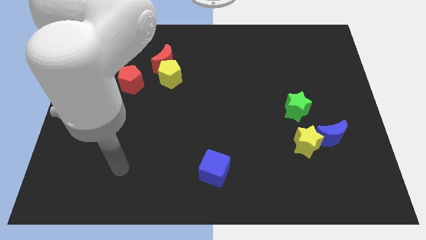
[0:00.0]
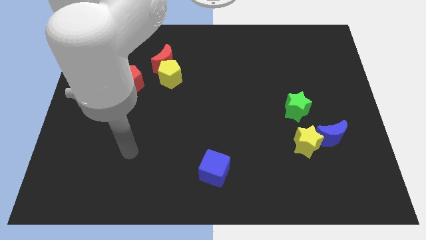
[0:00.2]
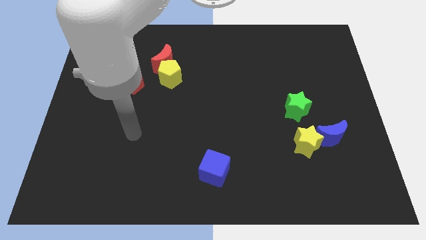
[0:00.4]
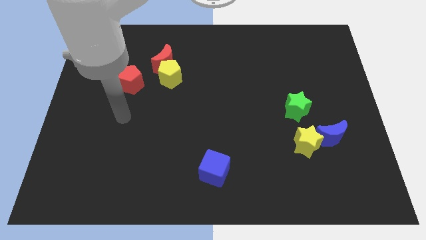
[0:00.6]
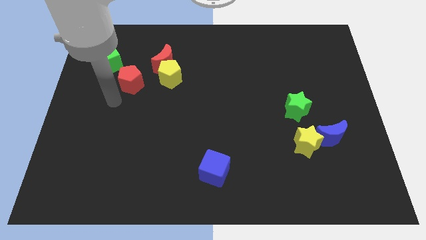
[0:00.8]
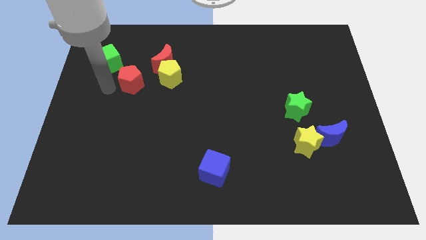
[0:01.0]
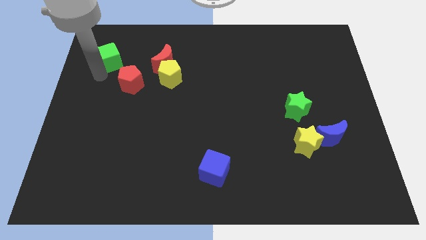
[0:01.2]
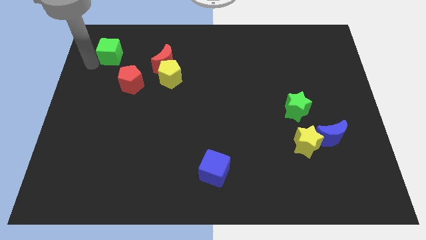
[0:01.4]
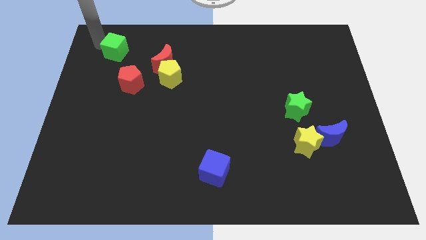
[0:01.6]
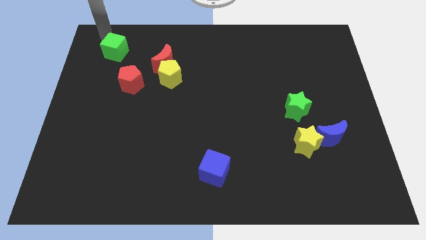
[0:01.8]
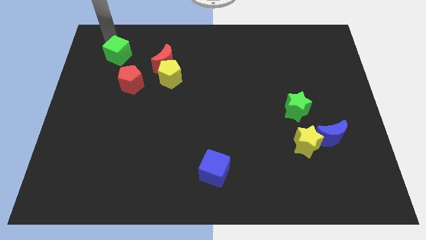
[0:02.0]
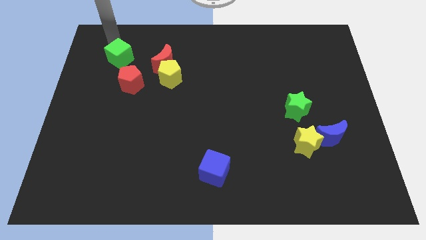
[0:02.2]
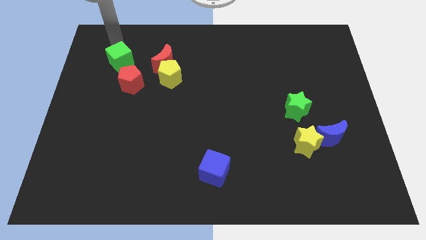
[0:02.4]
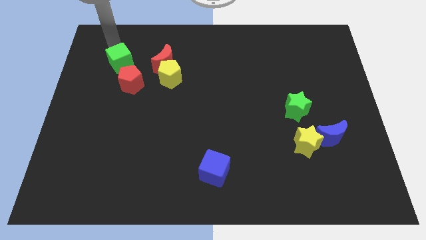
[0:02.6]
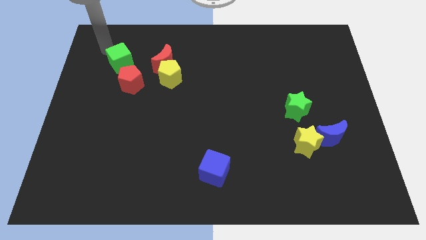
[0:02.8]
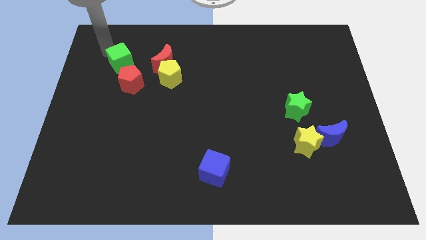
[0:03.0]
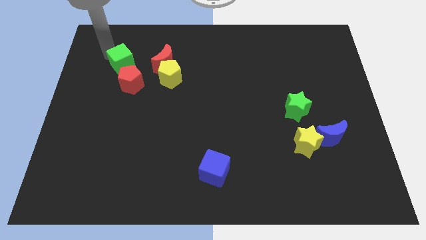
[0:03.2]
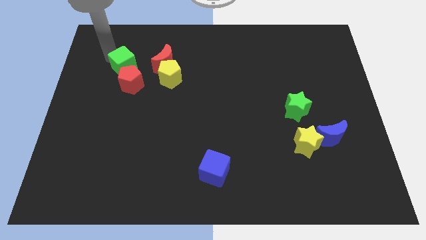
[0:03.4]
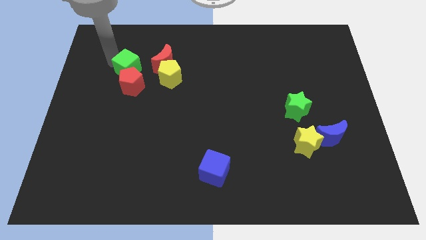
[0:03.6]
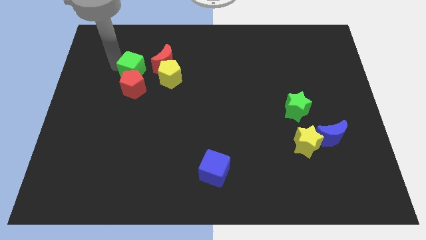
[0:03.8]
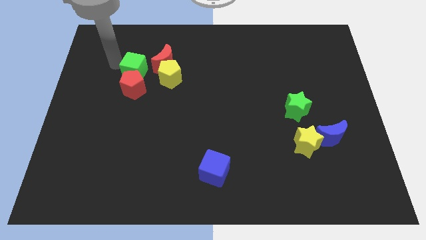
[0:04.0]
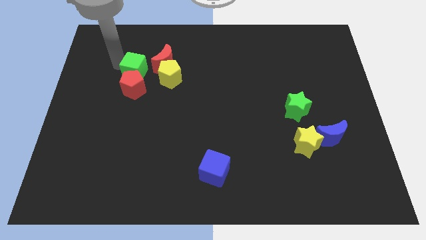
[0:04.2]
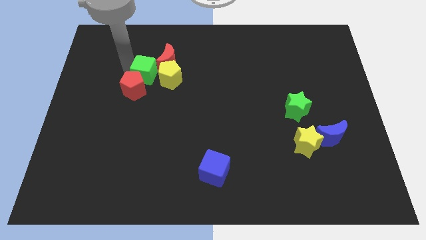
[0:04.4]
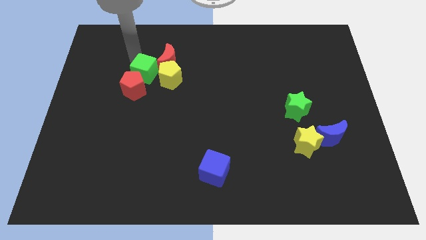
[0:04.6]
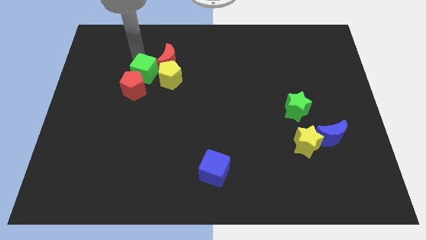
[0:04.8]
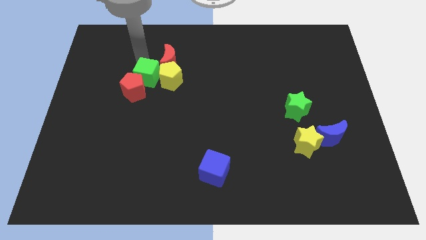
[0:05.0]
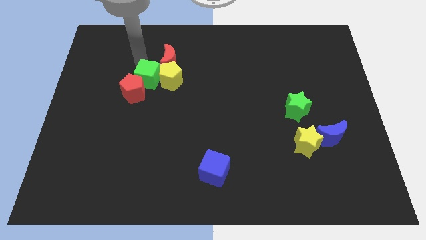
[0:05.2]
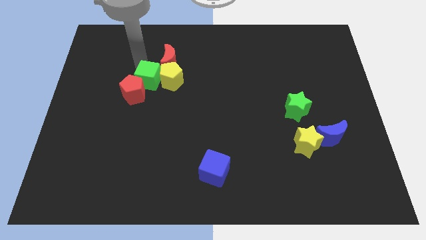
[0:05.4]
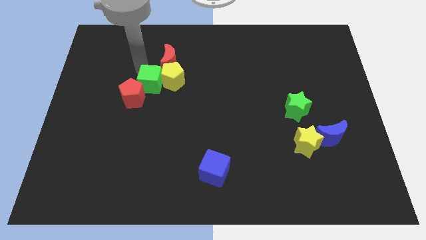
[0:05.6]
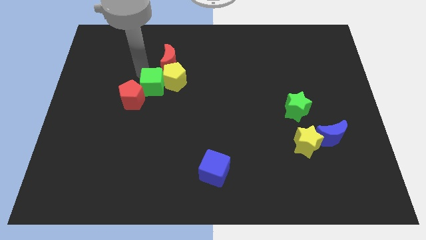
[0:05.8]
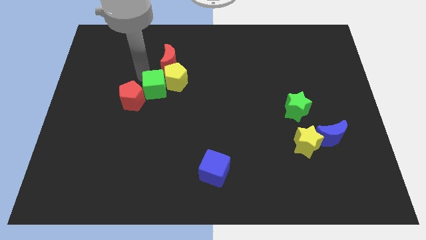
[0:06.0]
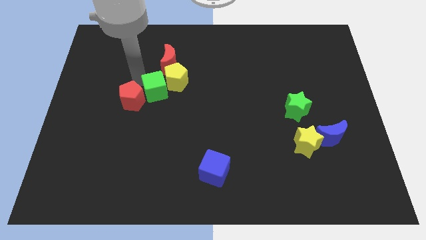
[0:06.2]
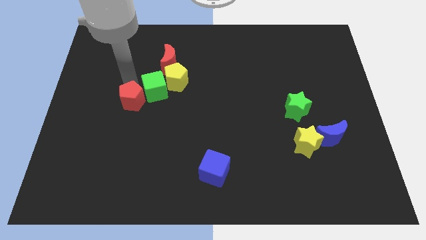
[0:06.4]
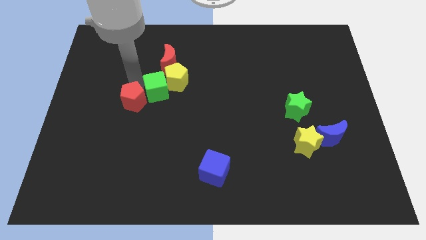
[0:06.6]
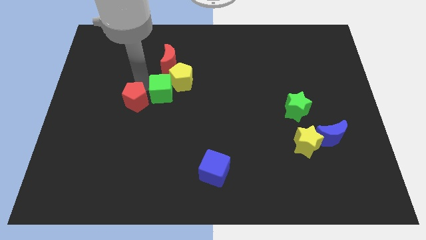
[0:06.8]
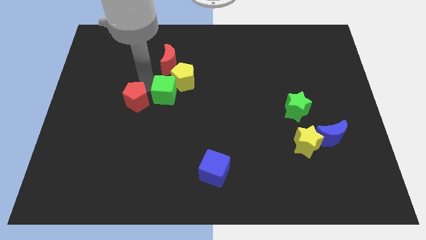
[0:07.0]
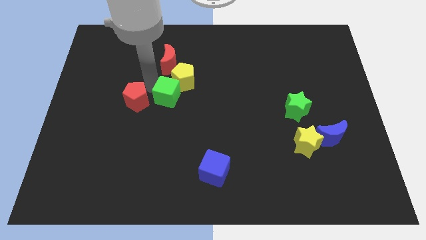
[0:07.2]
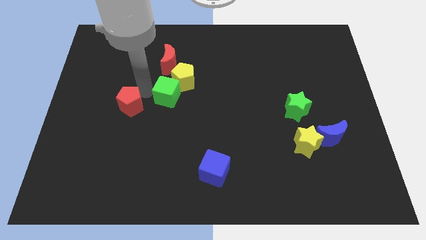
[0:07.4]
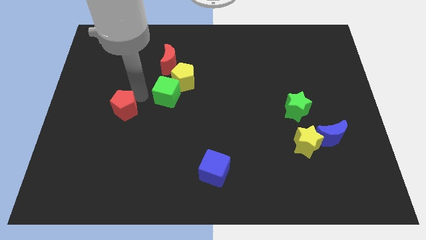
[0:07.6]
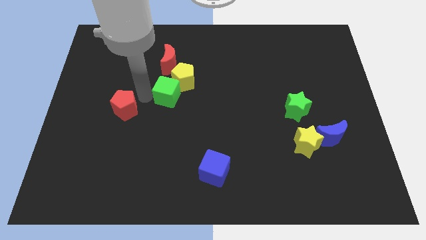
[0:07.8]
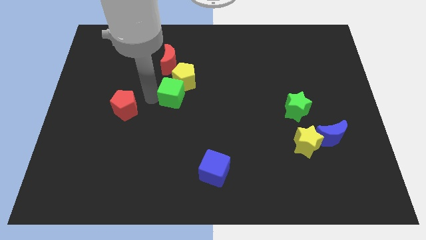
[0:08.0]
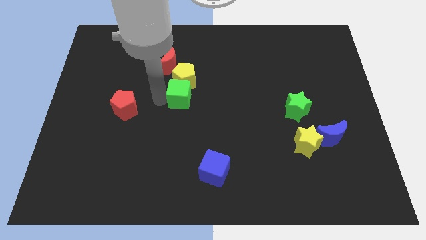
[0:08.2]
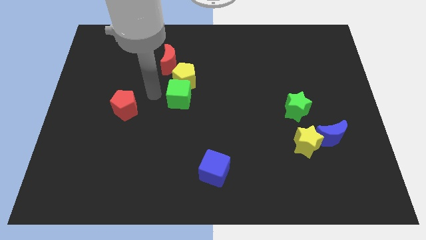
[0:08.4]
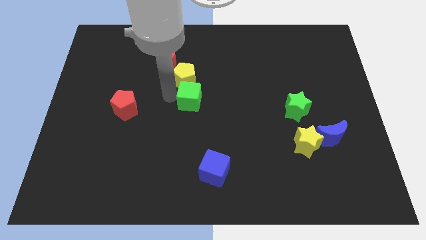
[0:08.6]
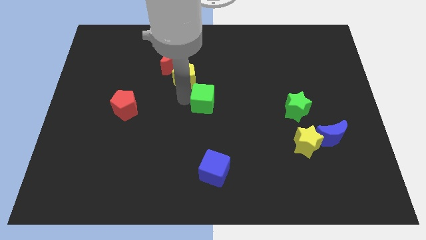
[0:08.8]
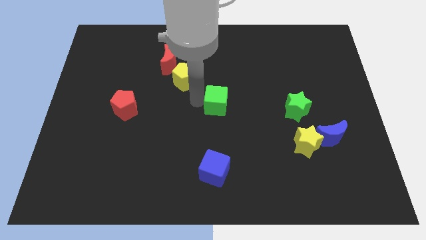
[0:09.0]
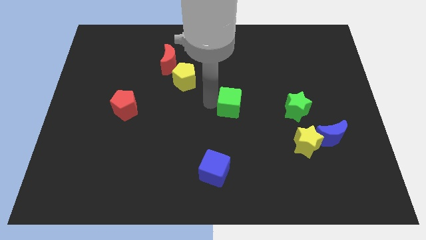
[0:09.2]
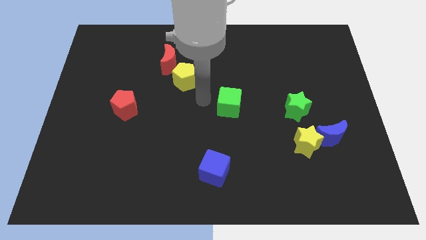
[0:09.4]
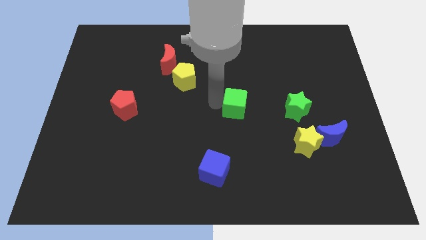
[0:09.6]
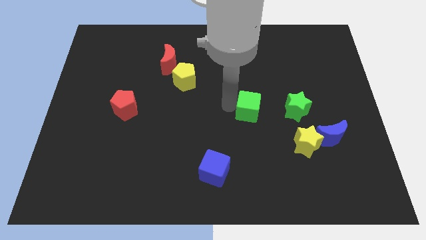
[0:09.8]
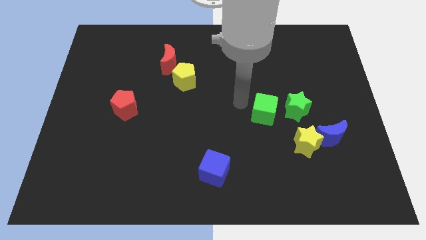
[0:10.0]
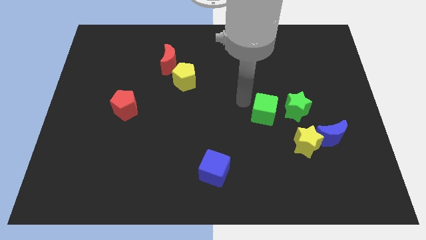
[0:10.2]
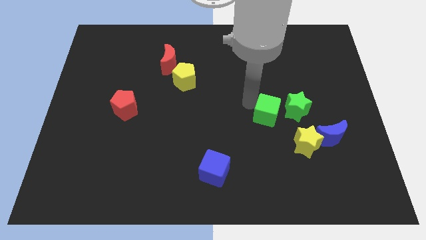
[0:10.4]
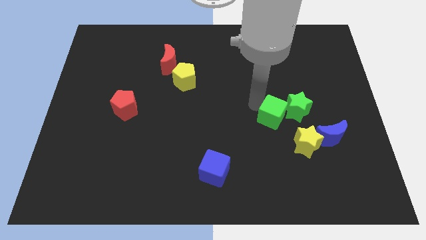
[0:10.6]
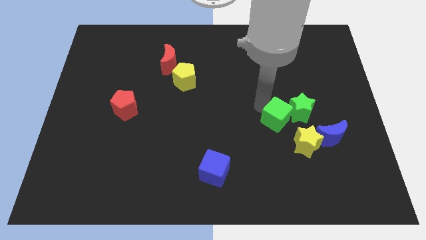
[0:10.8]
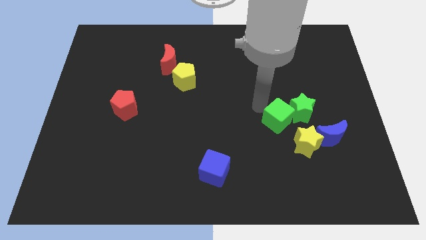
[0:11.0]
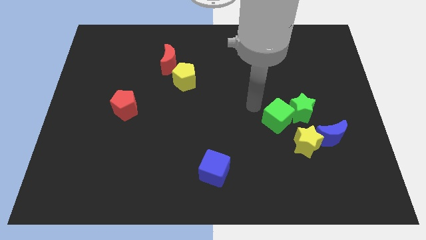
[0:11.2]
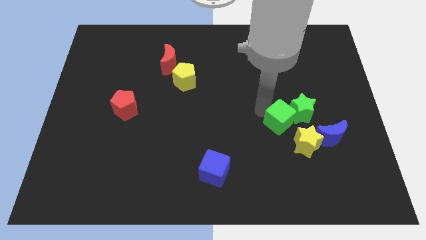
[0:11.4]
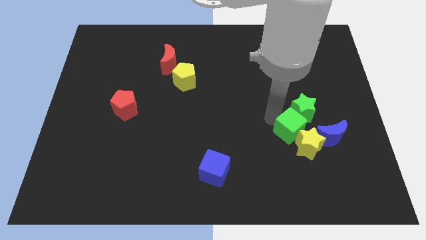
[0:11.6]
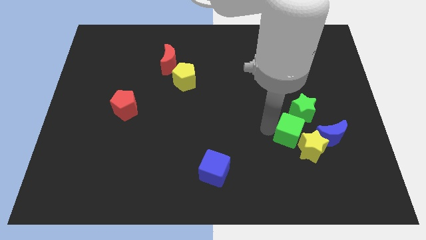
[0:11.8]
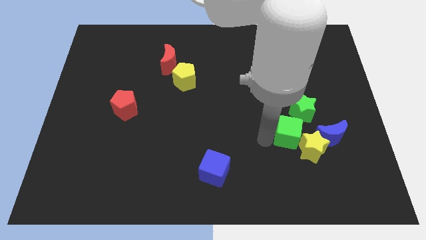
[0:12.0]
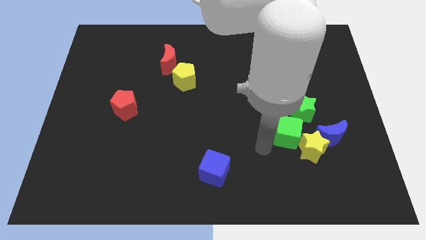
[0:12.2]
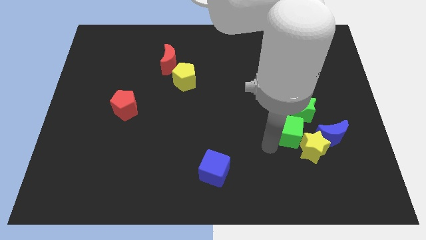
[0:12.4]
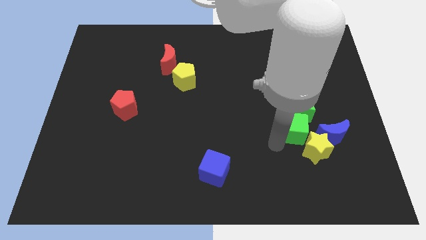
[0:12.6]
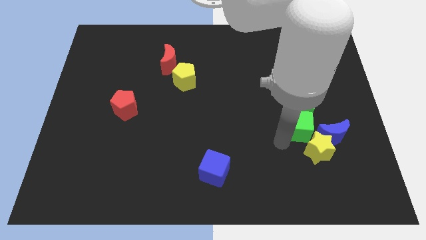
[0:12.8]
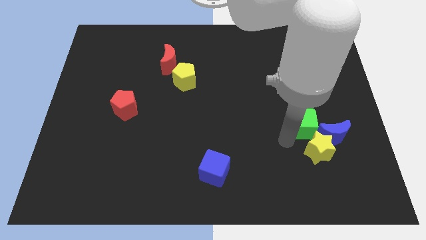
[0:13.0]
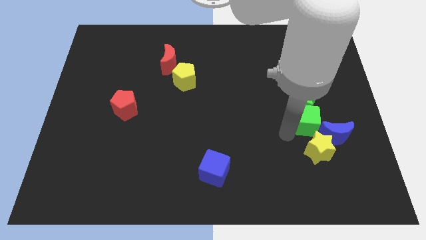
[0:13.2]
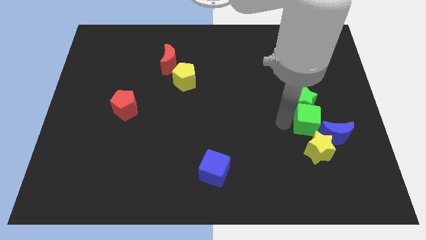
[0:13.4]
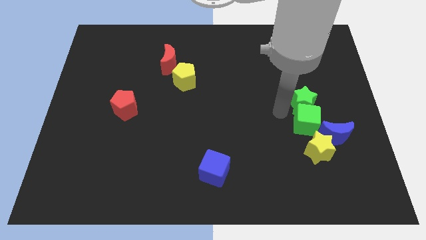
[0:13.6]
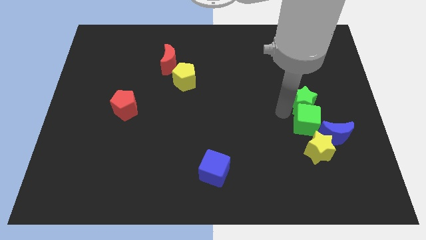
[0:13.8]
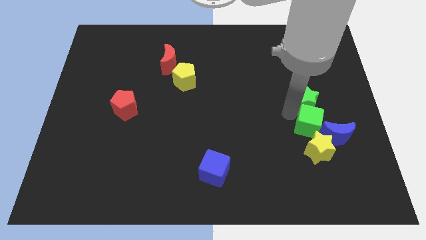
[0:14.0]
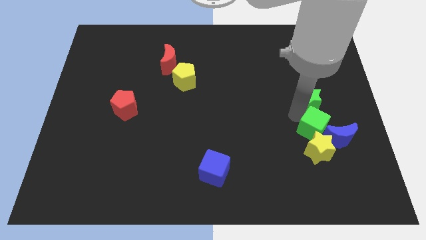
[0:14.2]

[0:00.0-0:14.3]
move the green cube towards the blue moon

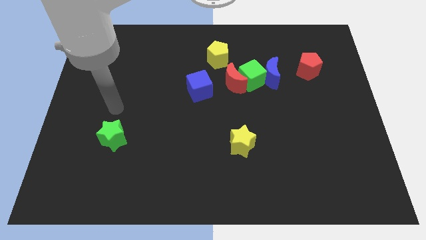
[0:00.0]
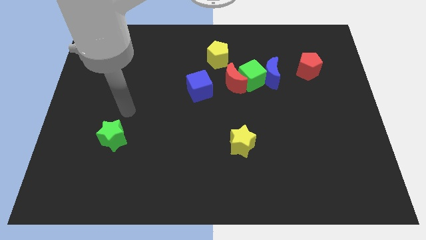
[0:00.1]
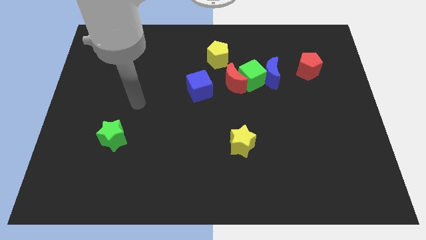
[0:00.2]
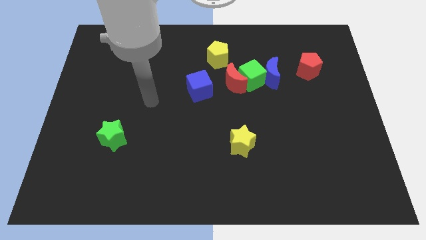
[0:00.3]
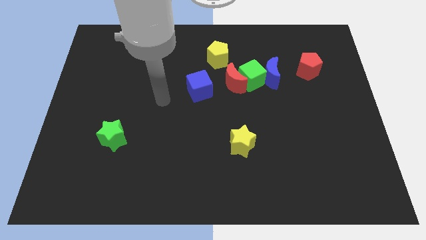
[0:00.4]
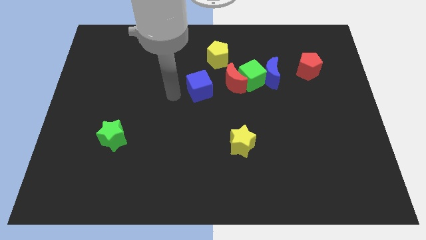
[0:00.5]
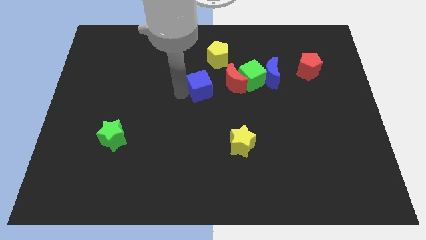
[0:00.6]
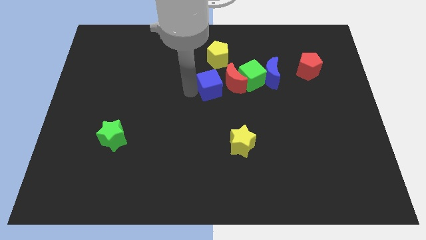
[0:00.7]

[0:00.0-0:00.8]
put the blue cube close to the red moon
